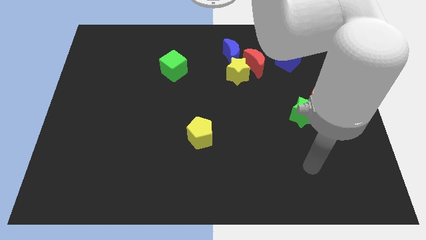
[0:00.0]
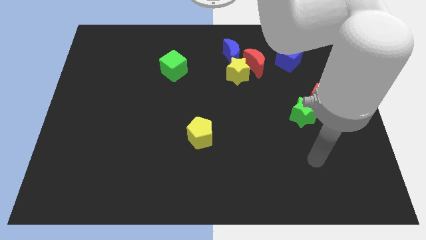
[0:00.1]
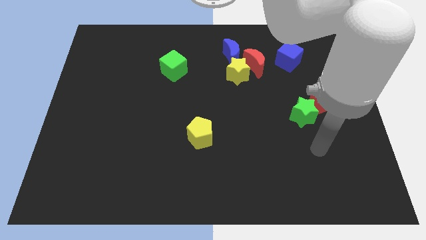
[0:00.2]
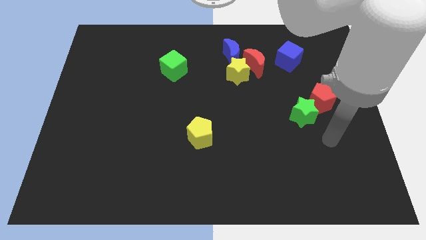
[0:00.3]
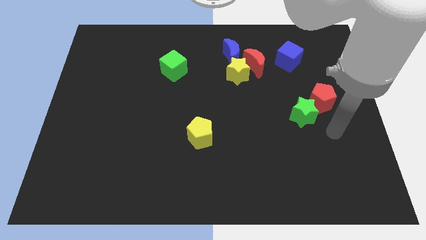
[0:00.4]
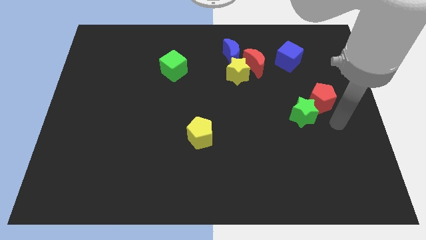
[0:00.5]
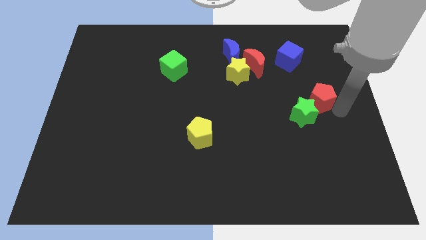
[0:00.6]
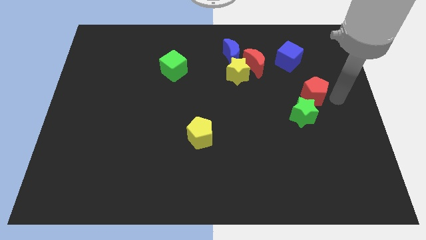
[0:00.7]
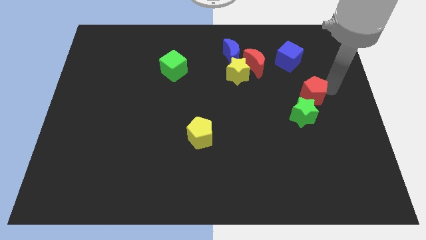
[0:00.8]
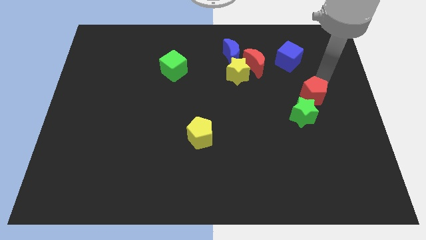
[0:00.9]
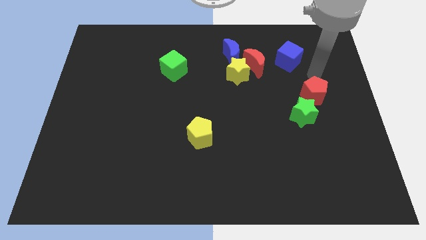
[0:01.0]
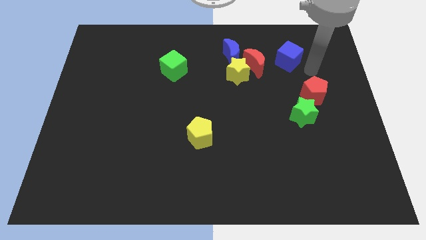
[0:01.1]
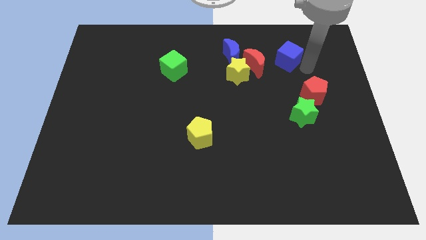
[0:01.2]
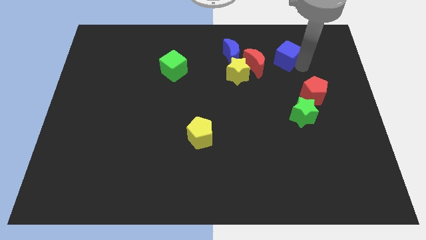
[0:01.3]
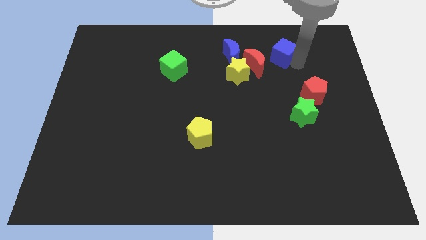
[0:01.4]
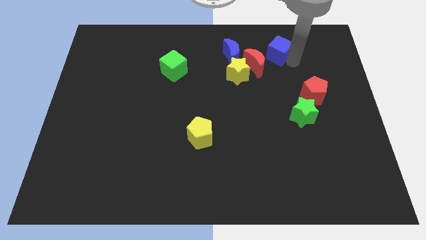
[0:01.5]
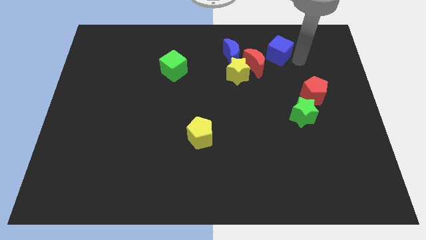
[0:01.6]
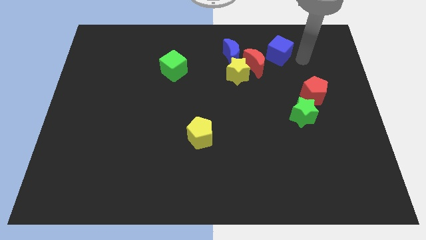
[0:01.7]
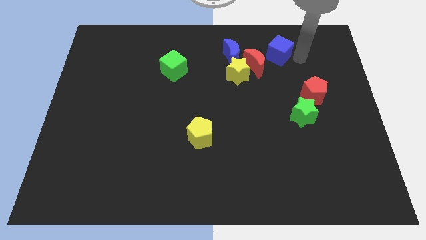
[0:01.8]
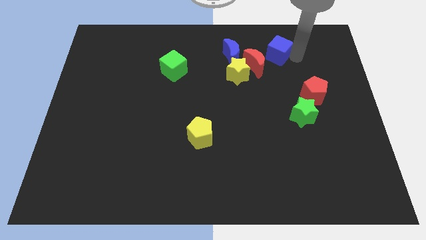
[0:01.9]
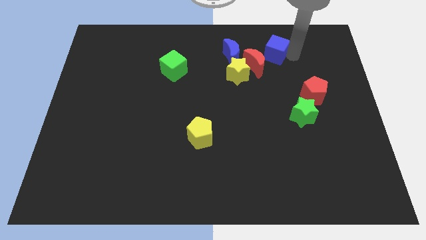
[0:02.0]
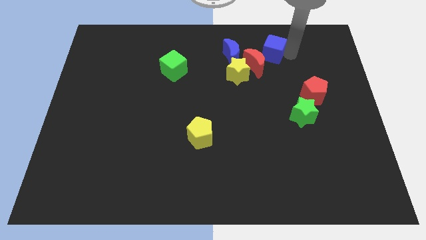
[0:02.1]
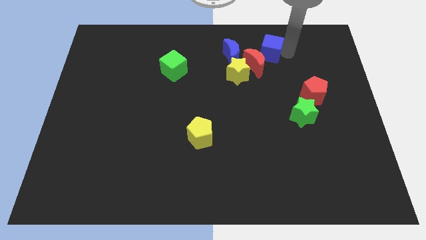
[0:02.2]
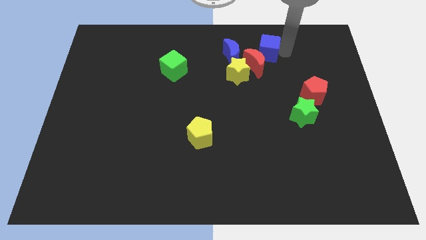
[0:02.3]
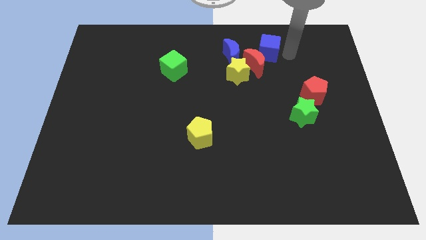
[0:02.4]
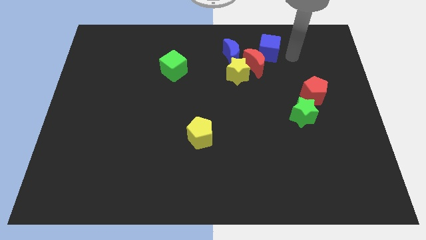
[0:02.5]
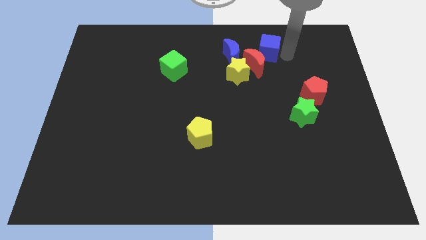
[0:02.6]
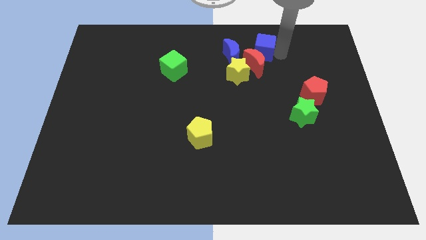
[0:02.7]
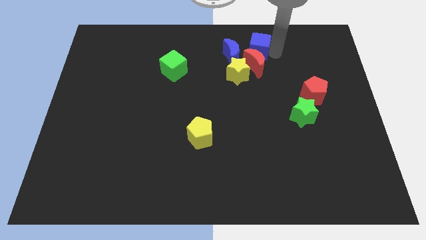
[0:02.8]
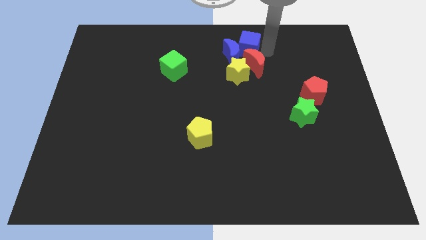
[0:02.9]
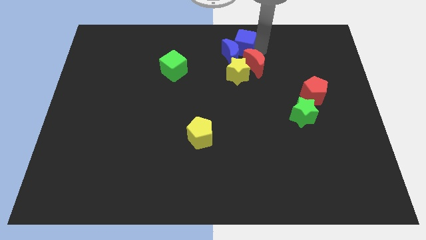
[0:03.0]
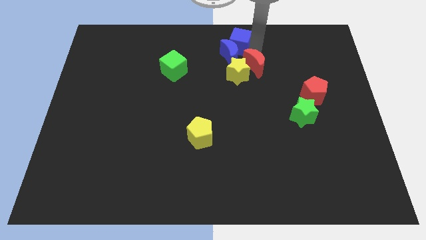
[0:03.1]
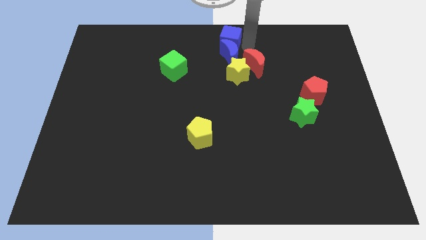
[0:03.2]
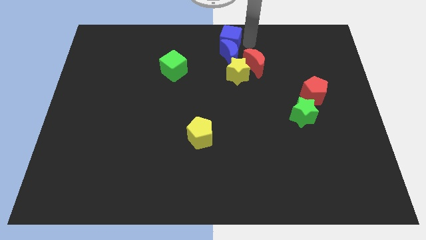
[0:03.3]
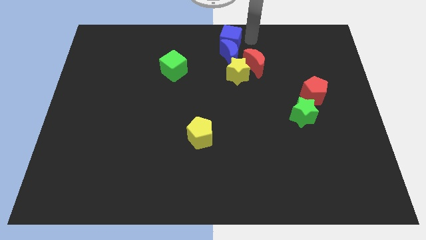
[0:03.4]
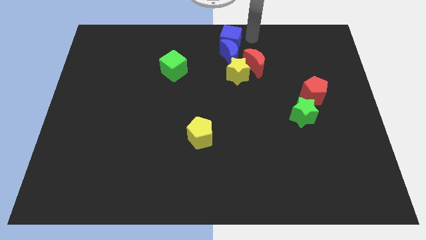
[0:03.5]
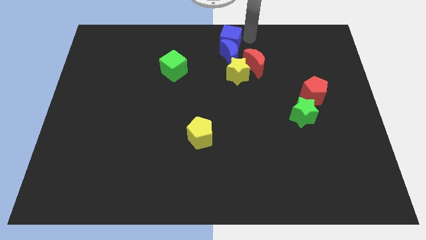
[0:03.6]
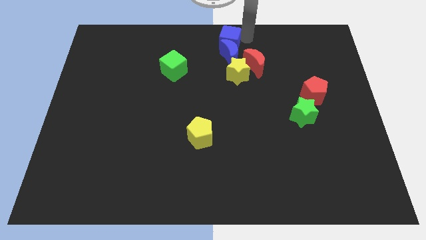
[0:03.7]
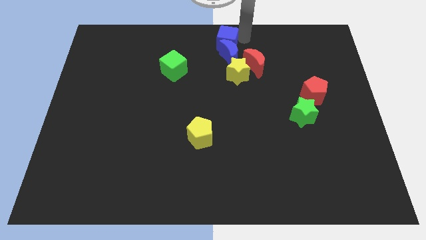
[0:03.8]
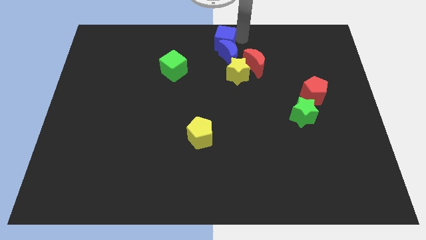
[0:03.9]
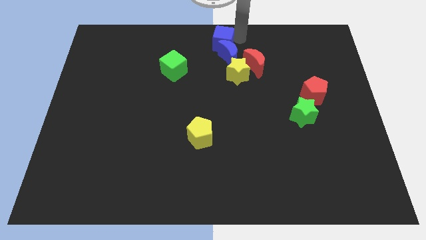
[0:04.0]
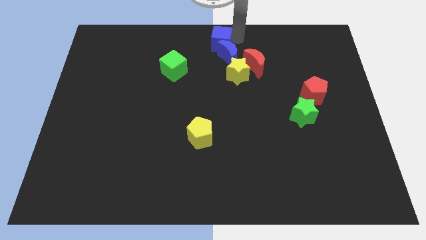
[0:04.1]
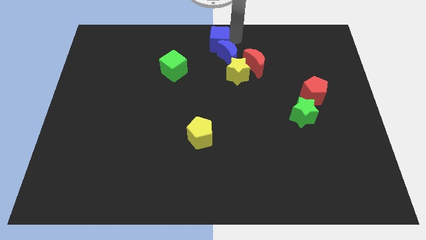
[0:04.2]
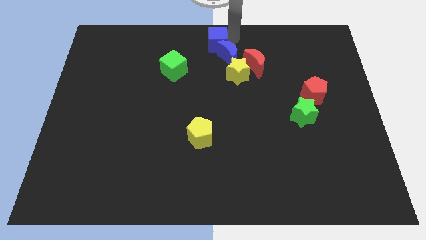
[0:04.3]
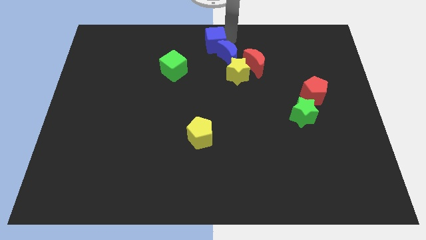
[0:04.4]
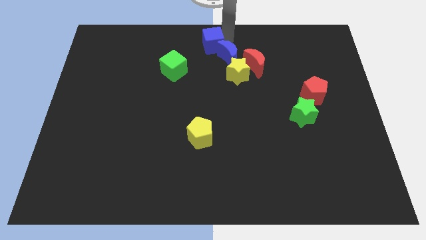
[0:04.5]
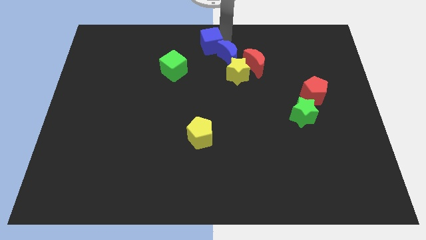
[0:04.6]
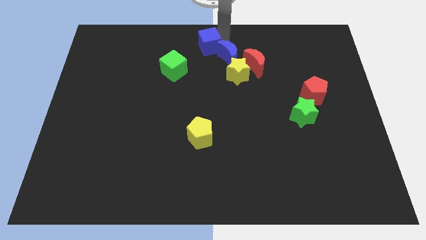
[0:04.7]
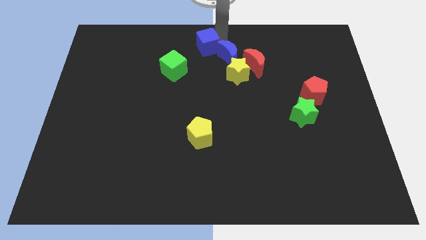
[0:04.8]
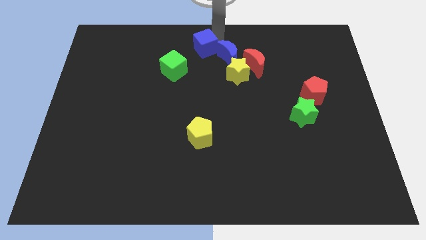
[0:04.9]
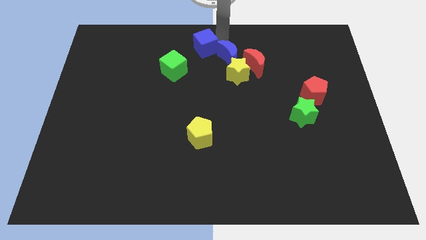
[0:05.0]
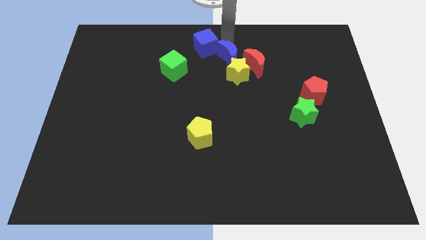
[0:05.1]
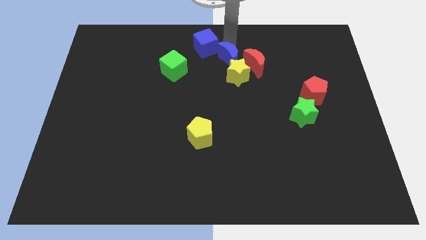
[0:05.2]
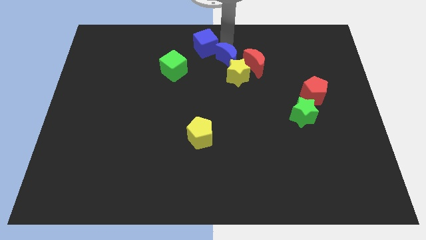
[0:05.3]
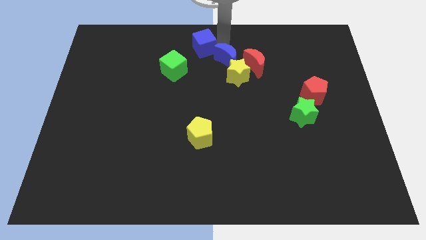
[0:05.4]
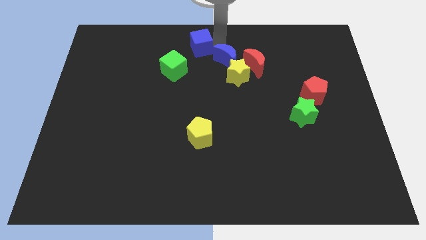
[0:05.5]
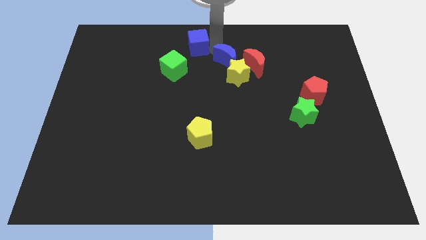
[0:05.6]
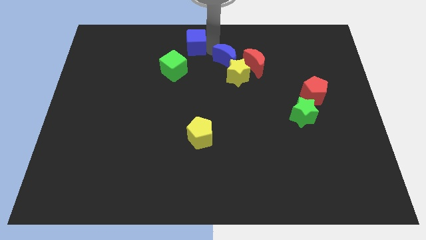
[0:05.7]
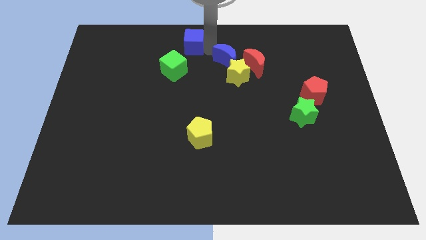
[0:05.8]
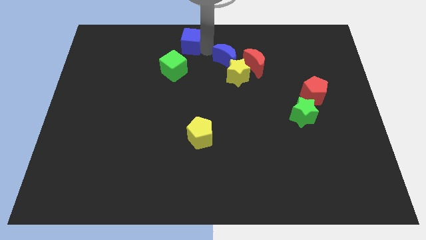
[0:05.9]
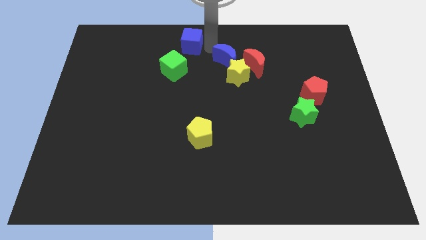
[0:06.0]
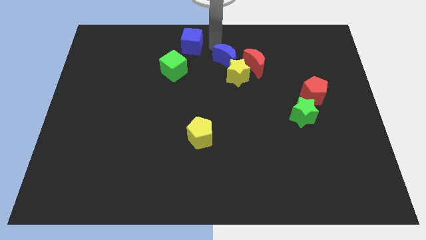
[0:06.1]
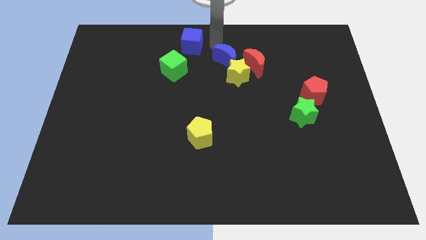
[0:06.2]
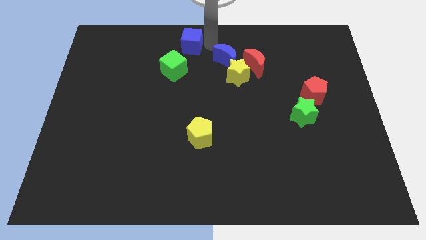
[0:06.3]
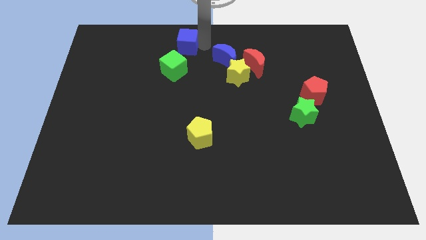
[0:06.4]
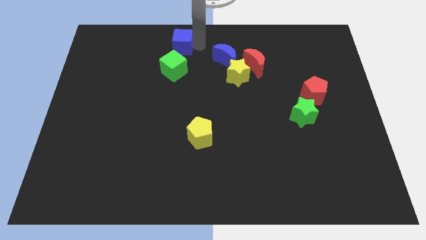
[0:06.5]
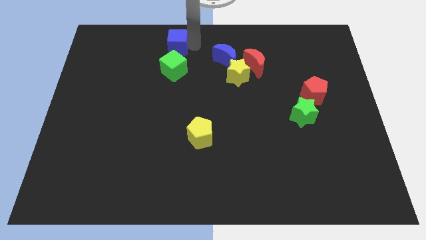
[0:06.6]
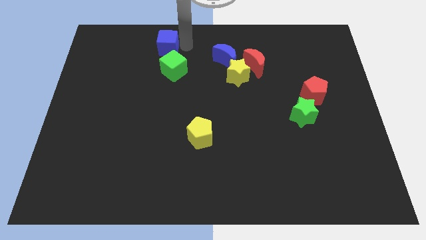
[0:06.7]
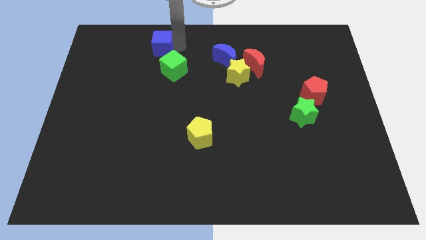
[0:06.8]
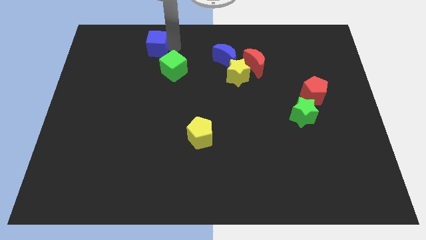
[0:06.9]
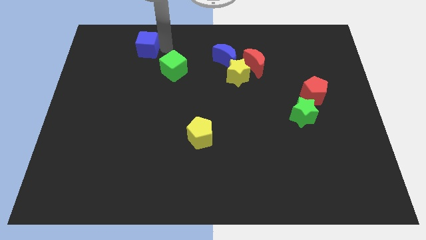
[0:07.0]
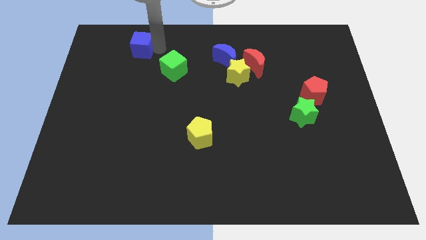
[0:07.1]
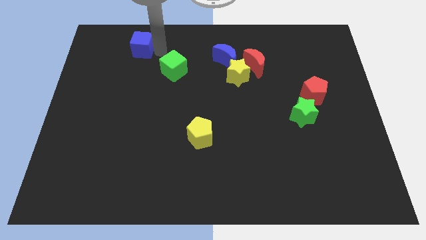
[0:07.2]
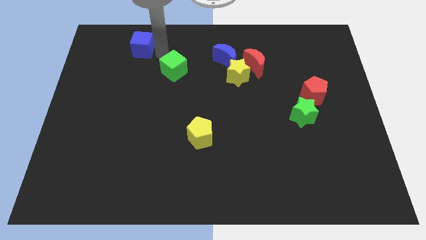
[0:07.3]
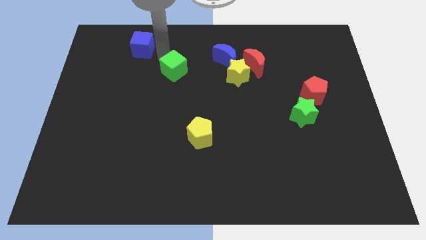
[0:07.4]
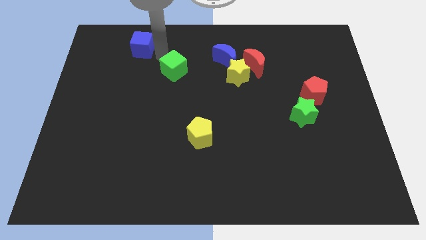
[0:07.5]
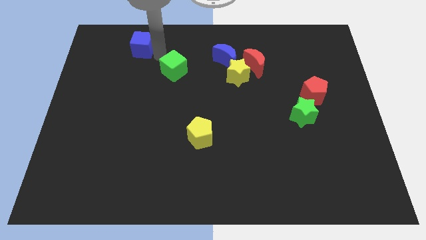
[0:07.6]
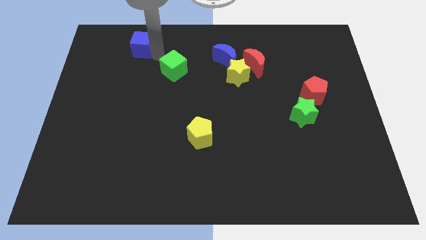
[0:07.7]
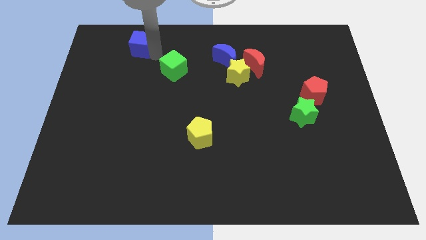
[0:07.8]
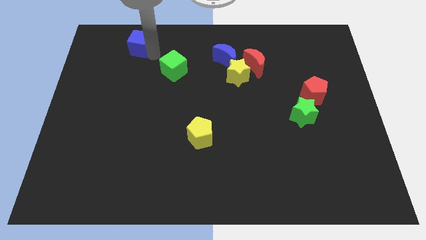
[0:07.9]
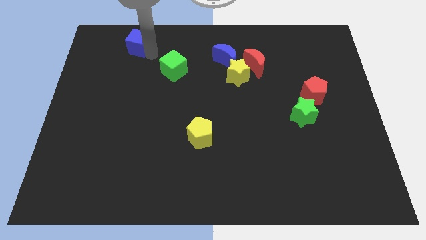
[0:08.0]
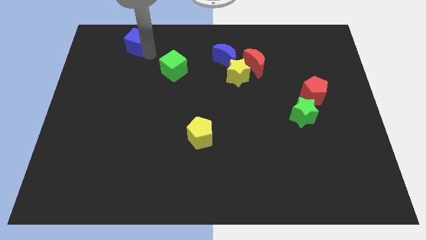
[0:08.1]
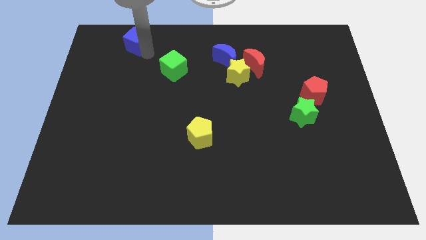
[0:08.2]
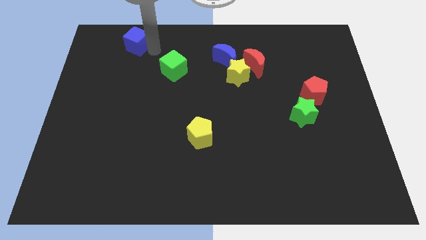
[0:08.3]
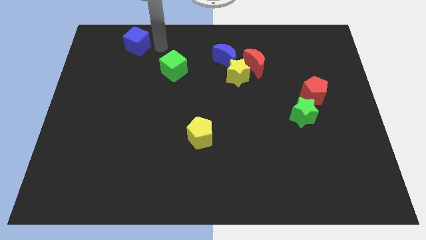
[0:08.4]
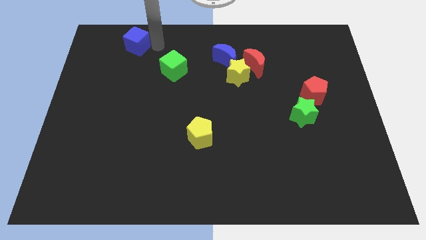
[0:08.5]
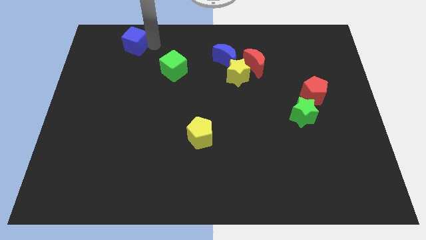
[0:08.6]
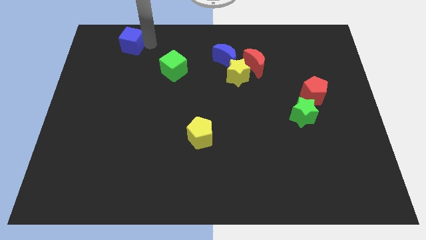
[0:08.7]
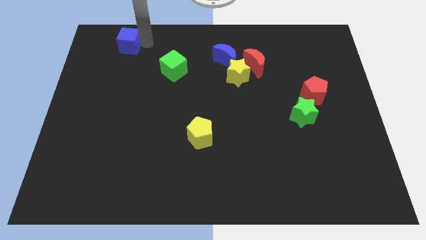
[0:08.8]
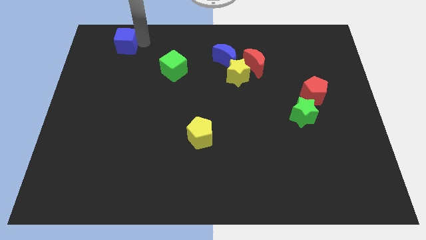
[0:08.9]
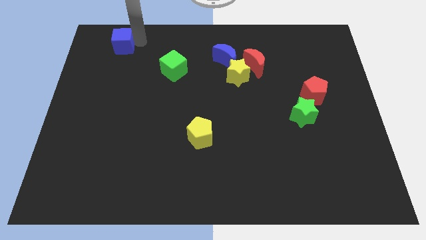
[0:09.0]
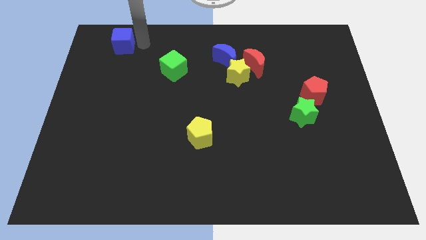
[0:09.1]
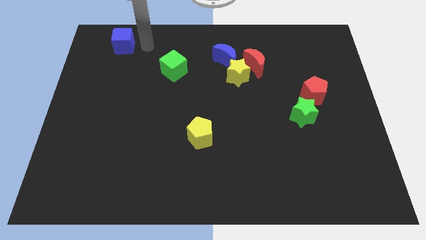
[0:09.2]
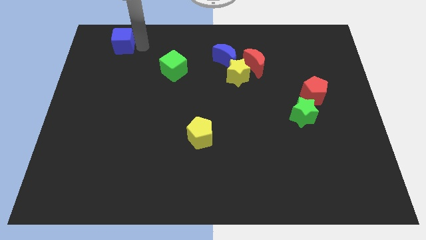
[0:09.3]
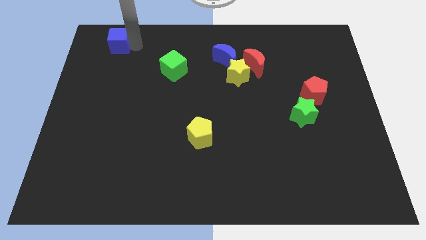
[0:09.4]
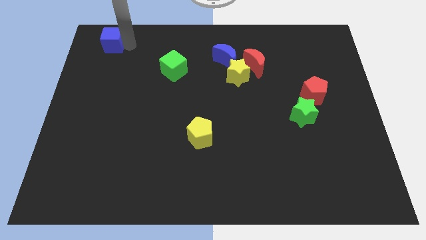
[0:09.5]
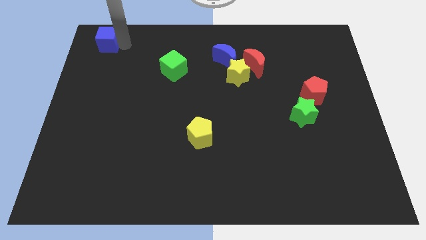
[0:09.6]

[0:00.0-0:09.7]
move the blue cube to the top left
